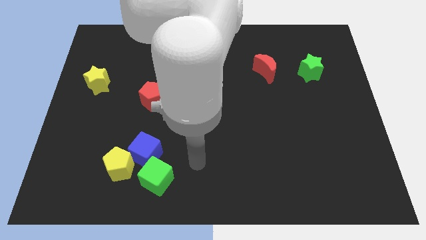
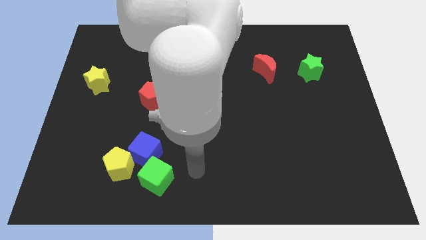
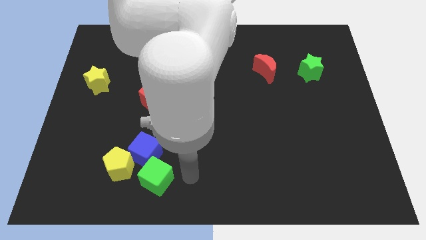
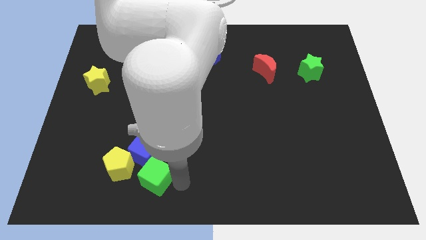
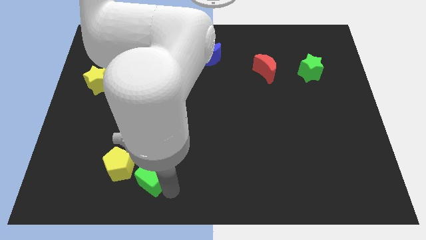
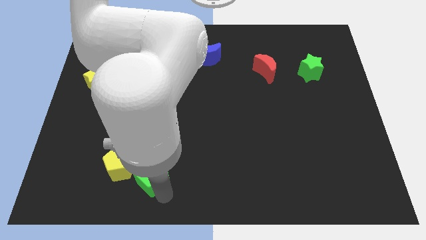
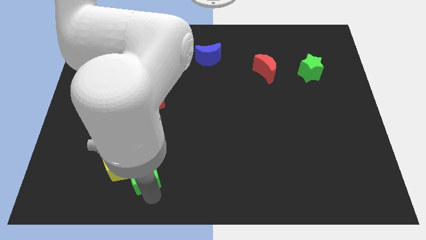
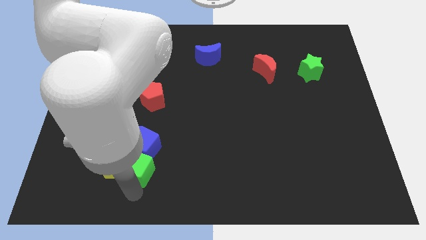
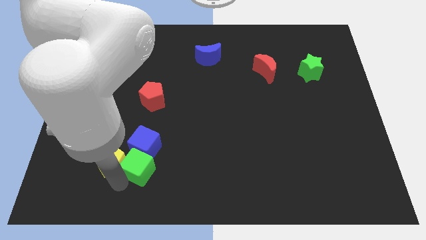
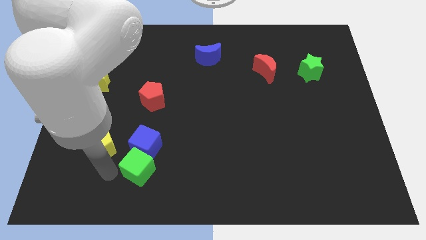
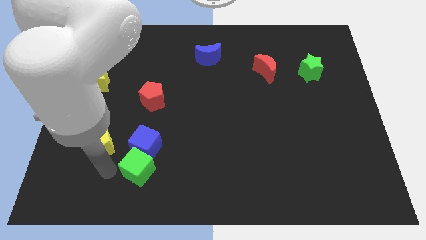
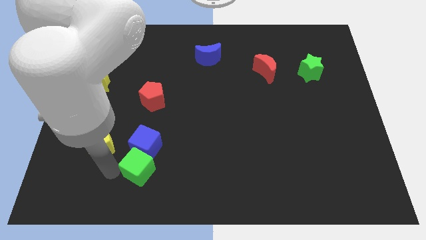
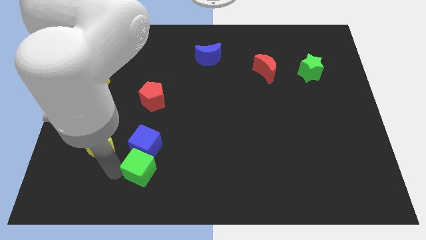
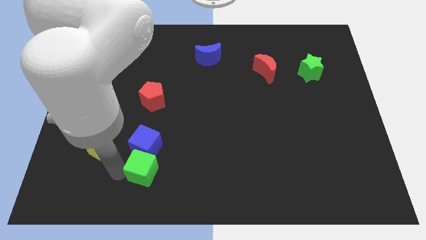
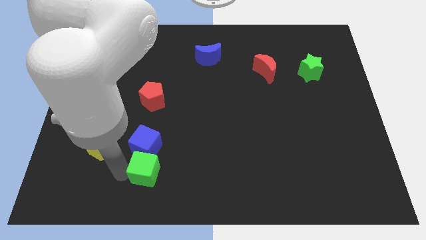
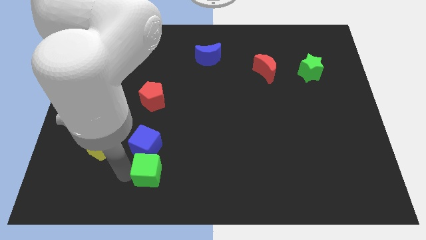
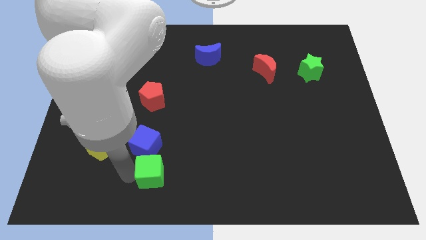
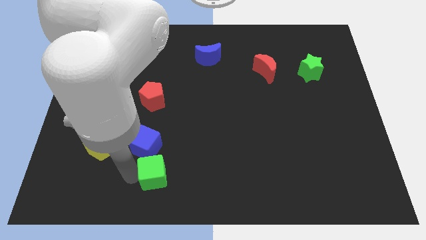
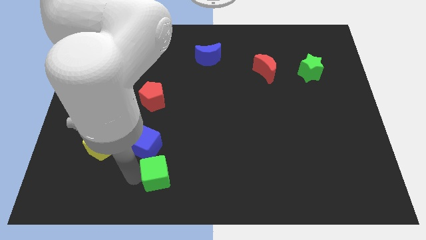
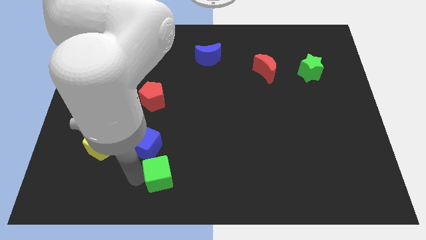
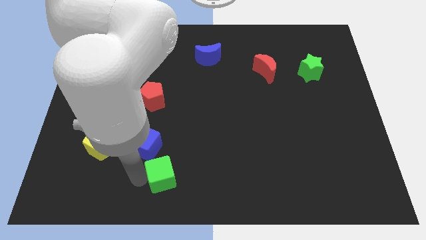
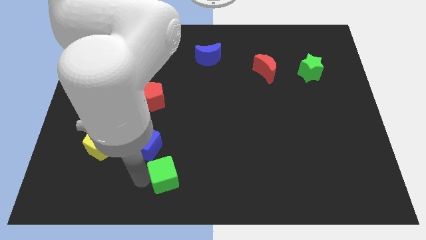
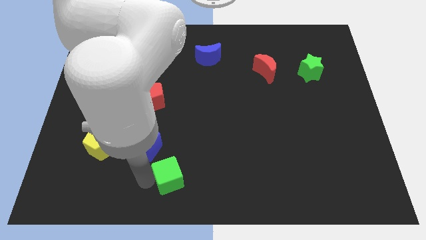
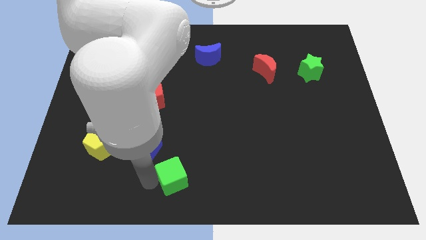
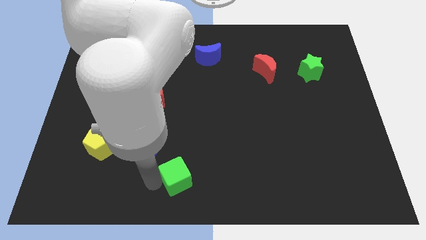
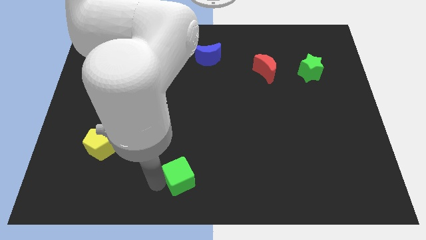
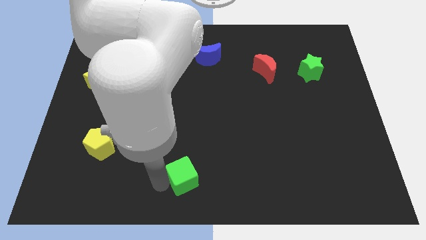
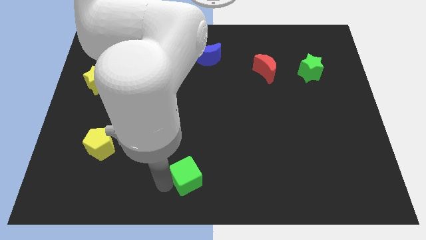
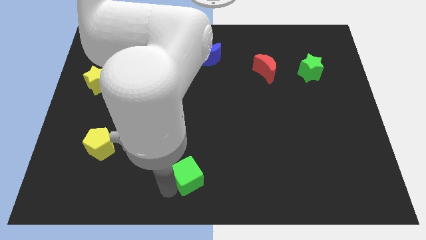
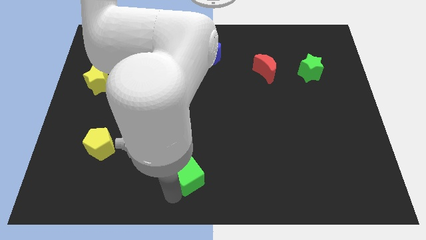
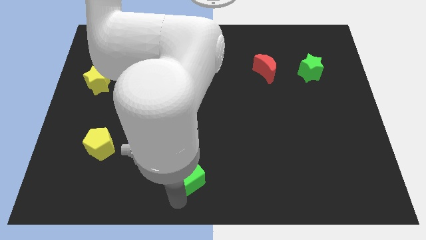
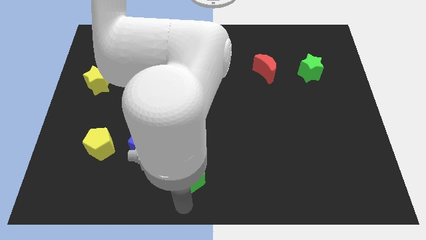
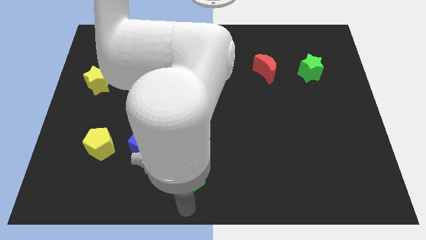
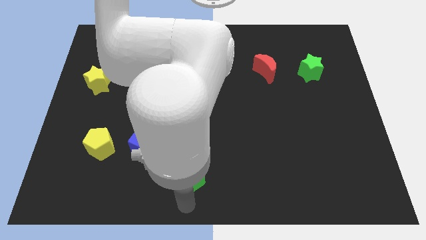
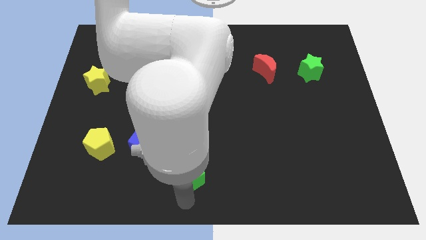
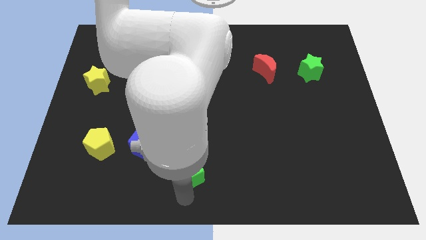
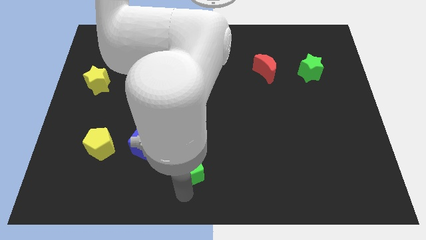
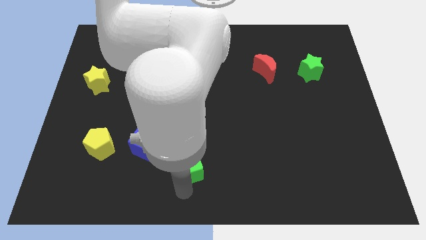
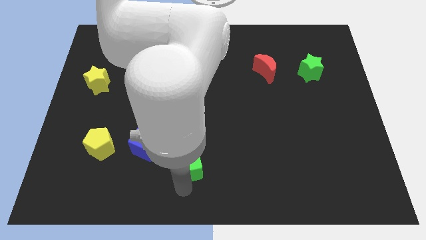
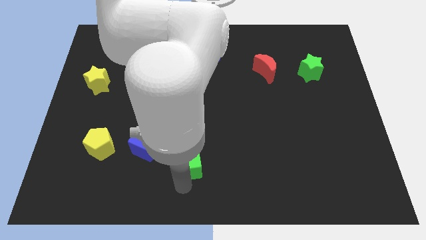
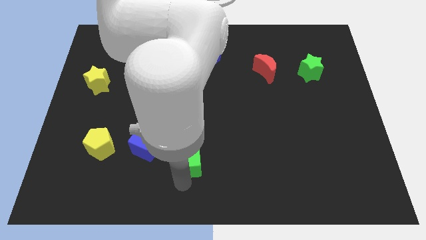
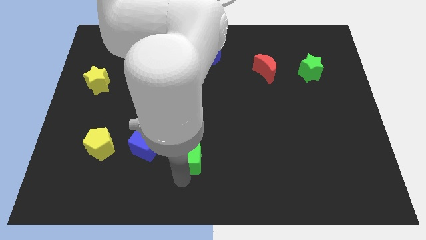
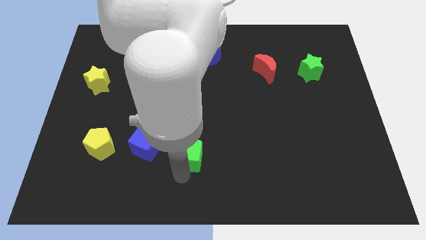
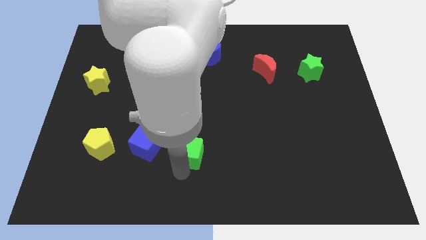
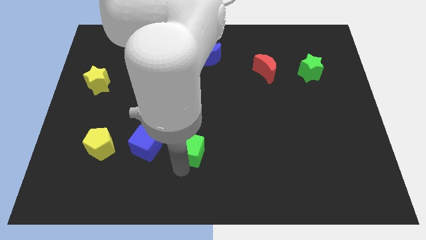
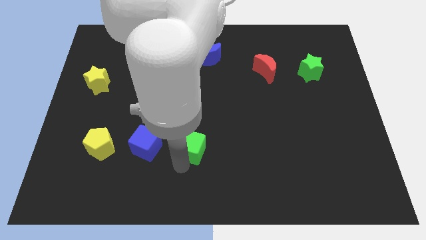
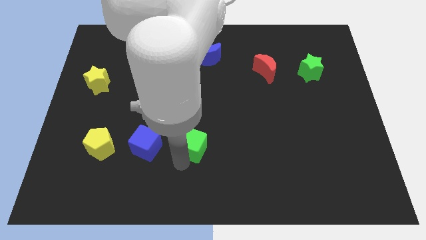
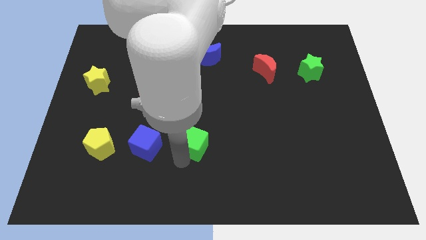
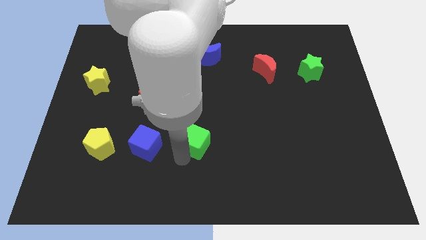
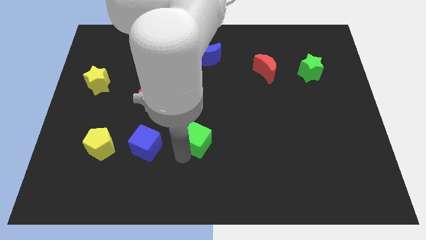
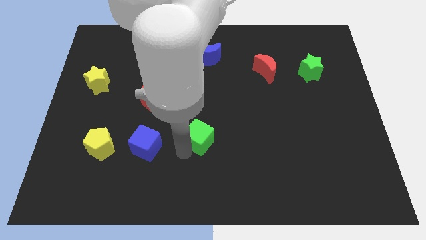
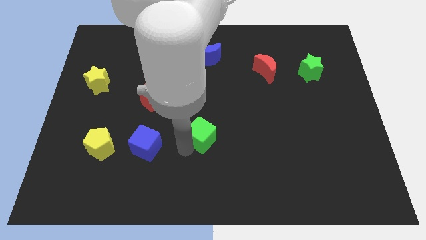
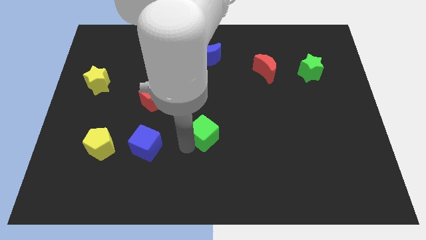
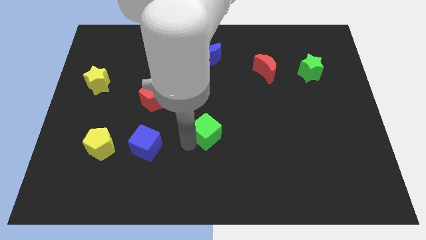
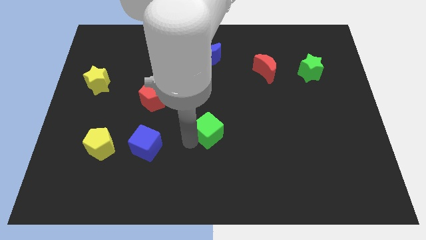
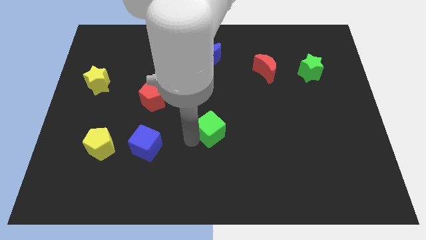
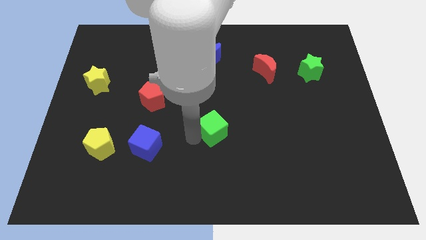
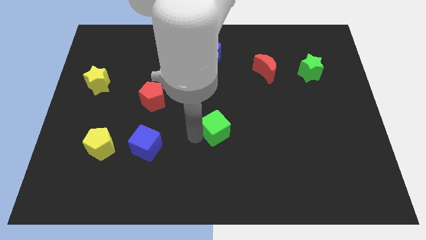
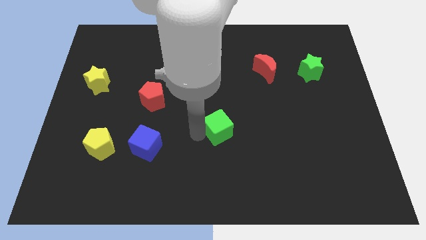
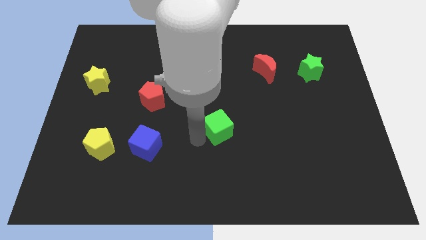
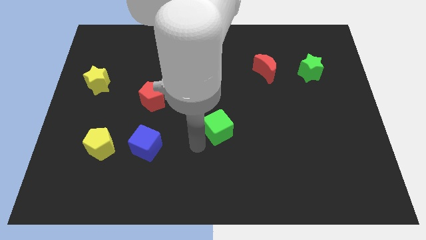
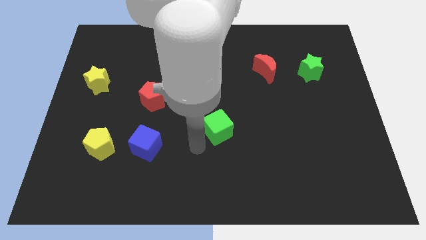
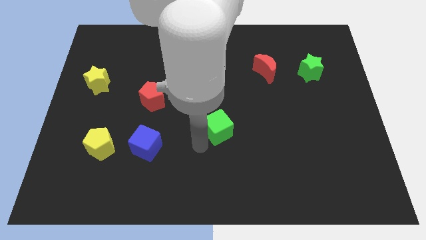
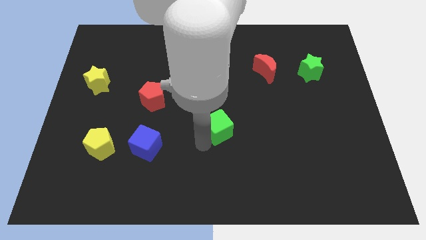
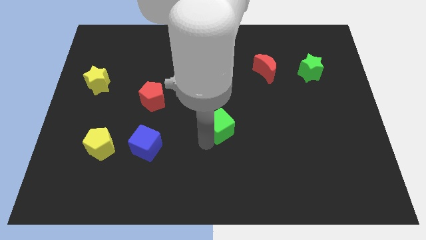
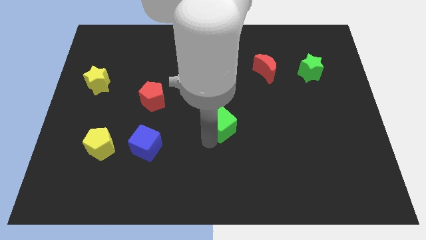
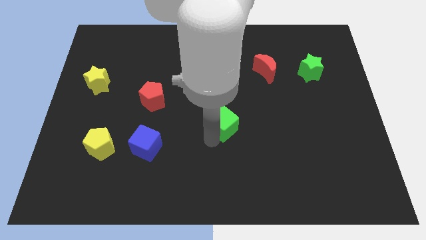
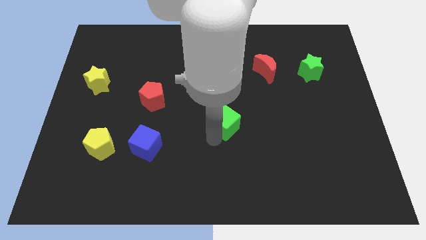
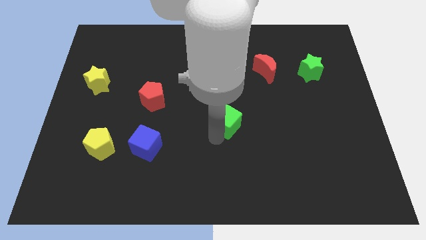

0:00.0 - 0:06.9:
slide the green cube up and then right

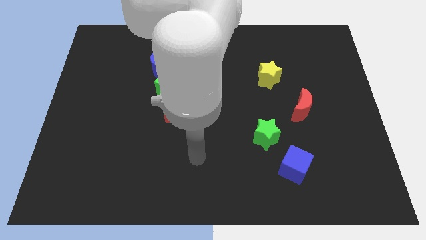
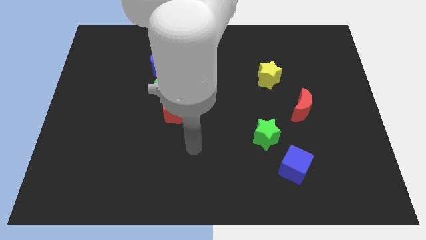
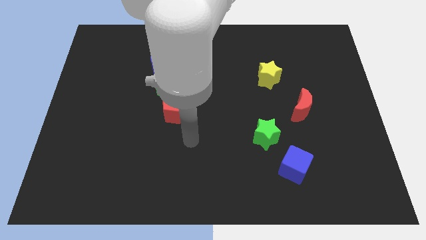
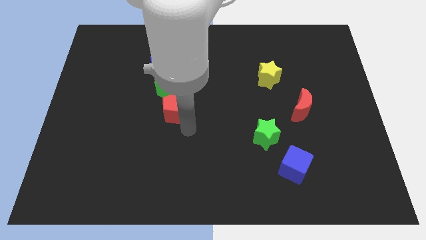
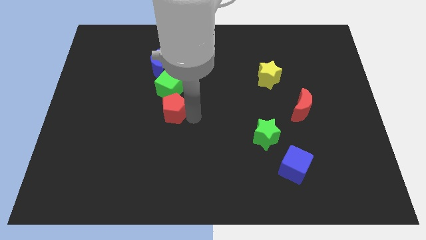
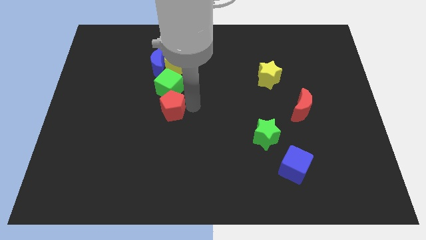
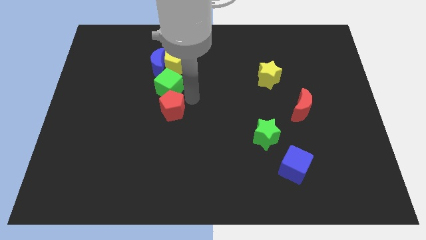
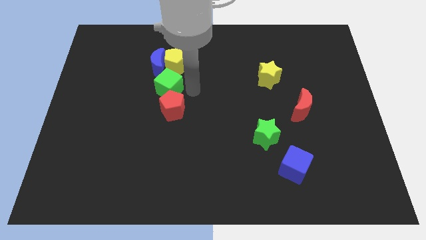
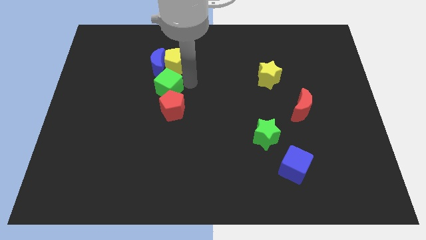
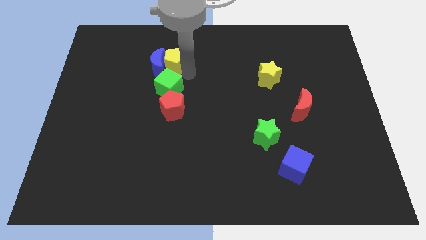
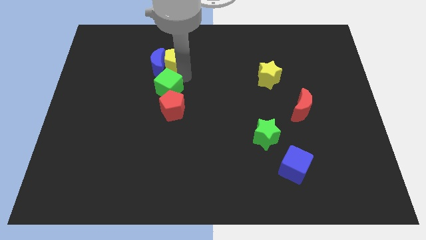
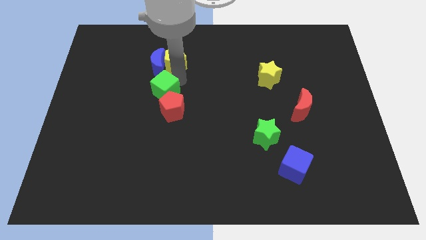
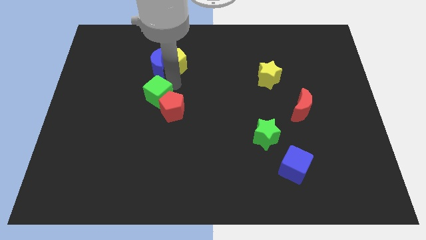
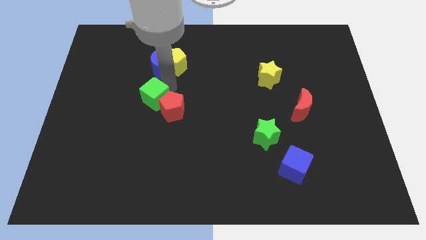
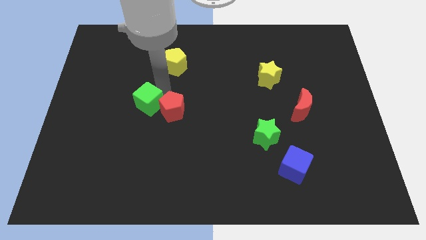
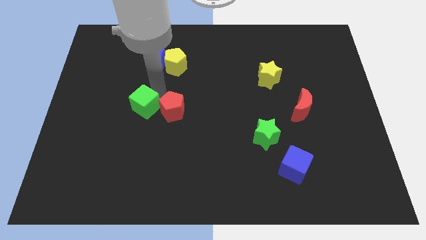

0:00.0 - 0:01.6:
slide the green cube slightly diagonally downwards and to the left
